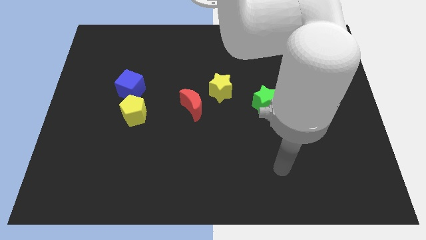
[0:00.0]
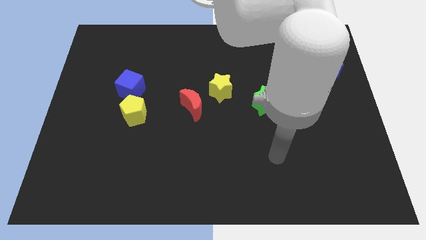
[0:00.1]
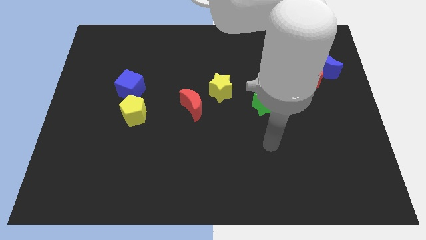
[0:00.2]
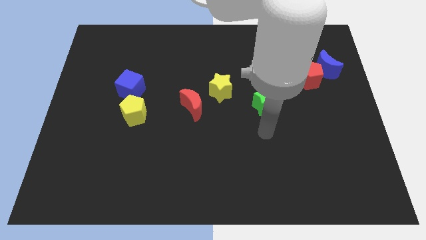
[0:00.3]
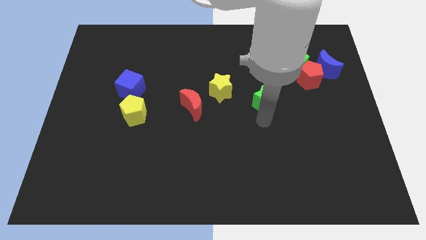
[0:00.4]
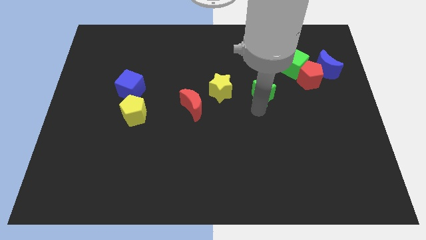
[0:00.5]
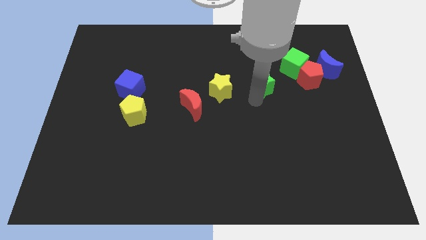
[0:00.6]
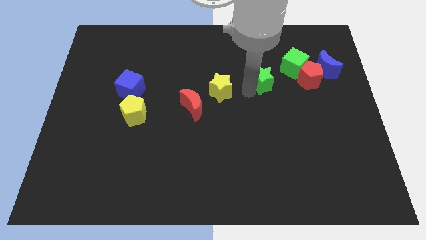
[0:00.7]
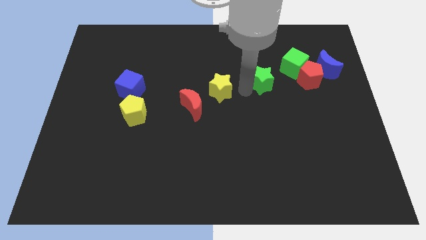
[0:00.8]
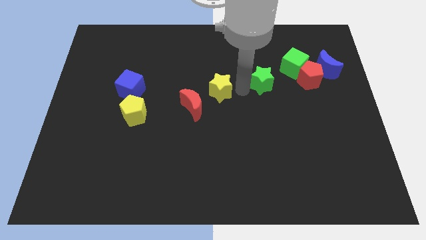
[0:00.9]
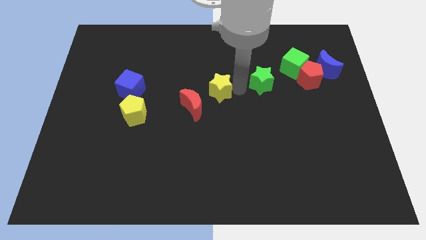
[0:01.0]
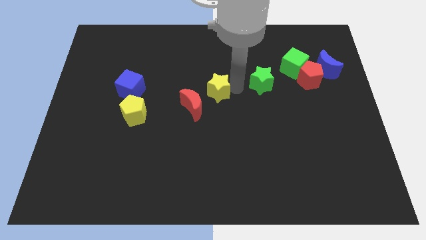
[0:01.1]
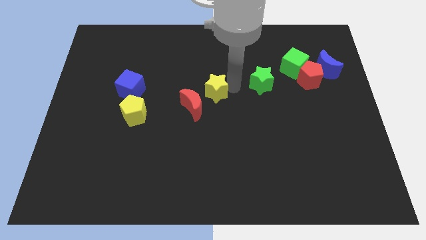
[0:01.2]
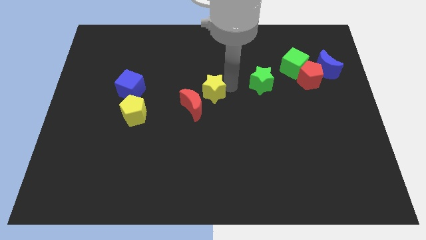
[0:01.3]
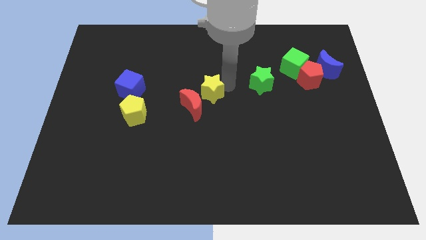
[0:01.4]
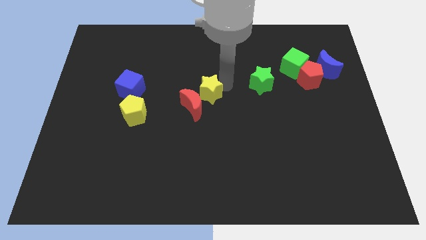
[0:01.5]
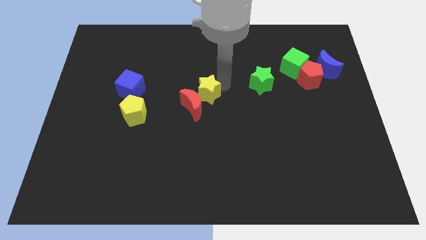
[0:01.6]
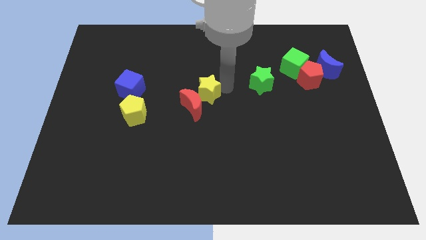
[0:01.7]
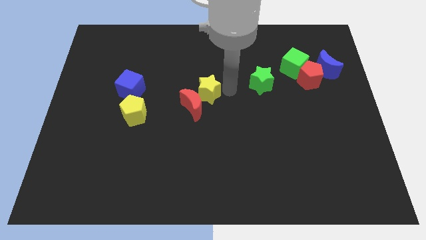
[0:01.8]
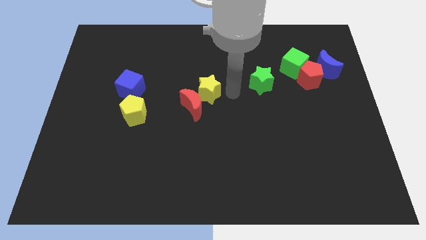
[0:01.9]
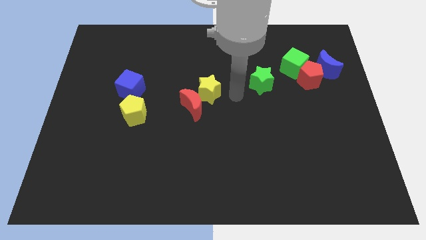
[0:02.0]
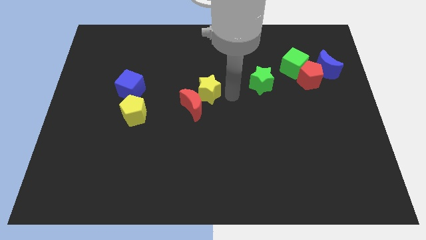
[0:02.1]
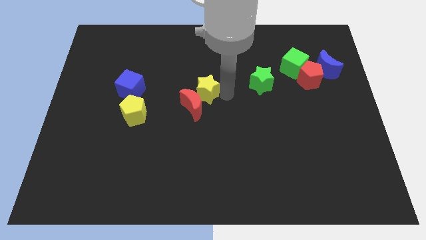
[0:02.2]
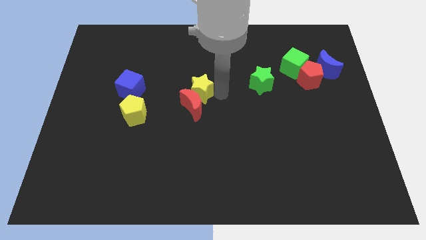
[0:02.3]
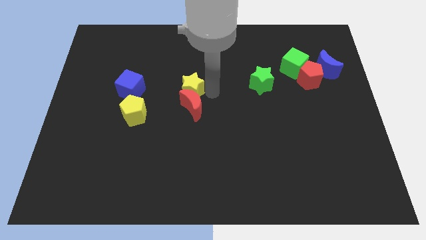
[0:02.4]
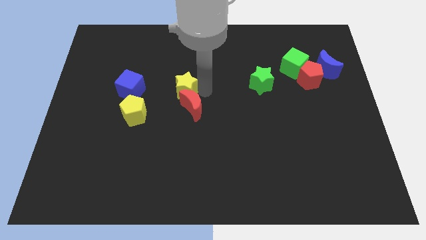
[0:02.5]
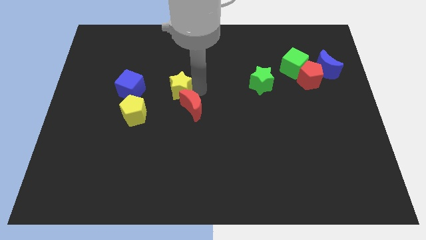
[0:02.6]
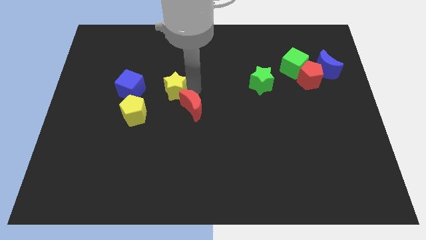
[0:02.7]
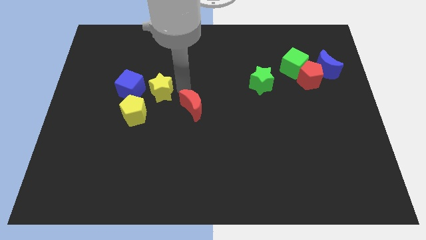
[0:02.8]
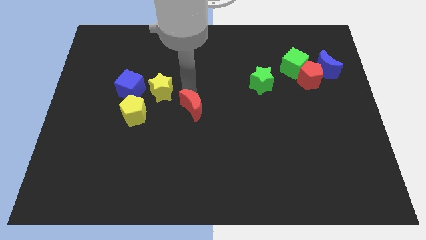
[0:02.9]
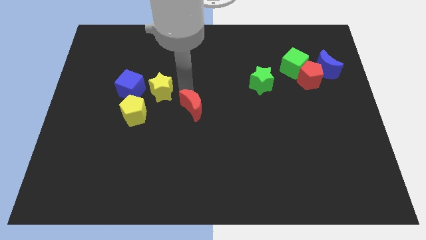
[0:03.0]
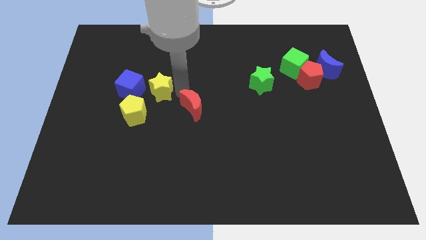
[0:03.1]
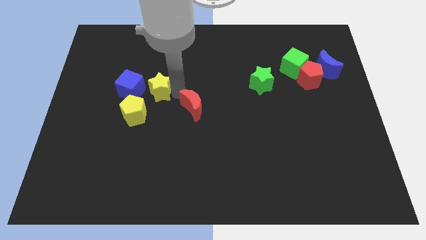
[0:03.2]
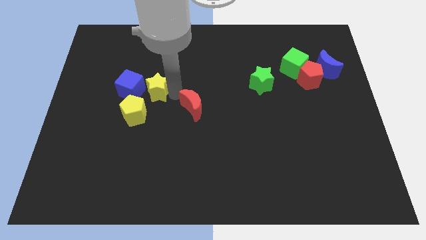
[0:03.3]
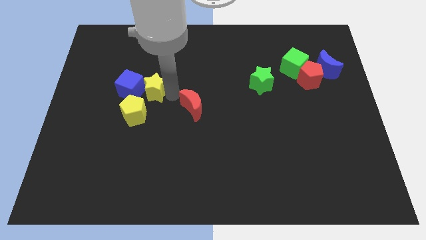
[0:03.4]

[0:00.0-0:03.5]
slide the yellow star close to the blue cube

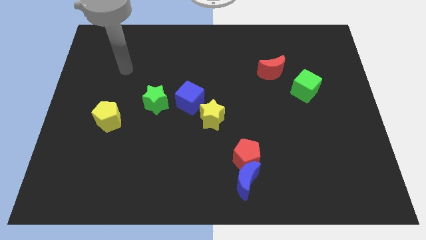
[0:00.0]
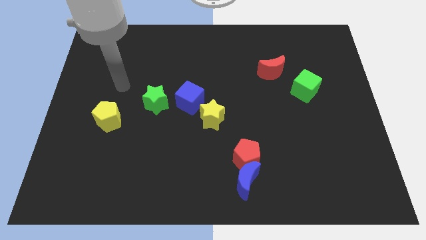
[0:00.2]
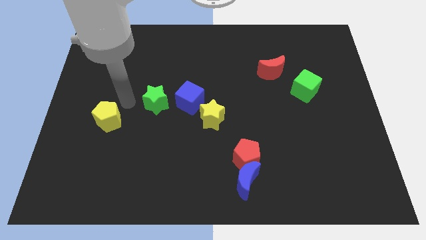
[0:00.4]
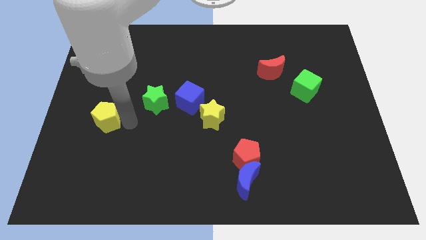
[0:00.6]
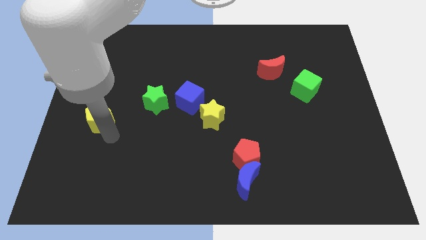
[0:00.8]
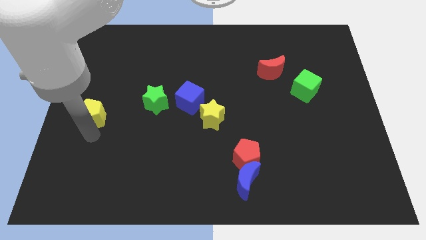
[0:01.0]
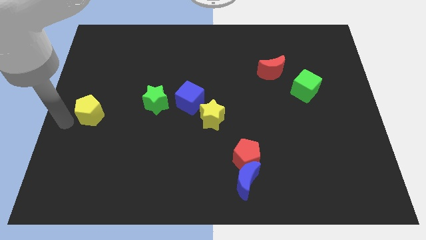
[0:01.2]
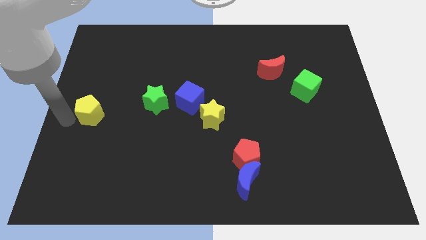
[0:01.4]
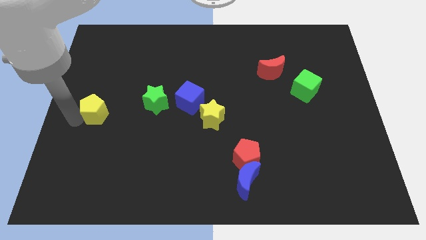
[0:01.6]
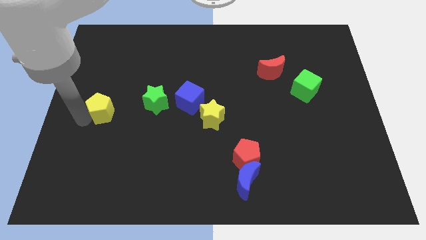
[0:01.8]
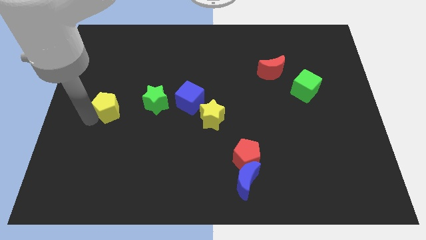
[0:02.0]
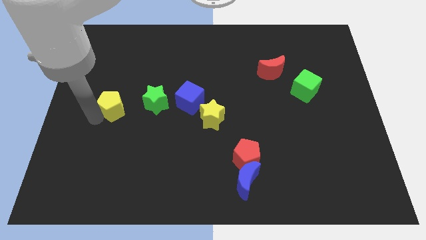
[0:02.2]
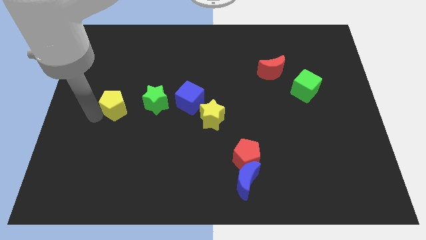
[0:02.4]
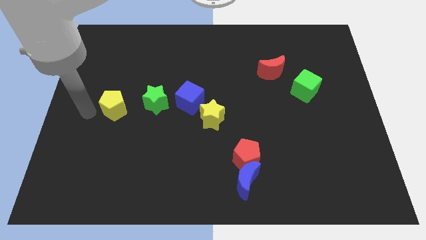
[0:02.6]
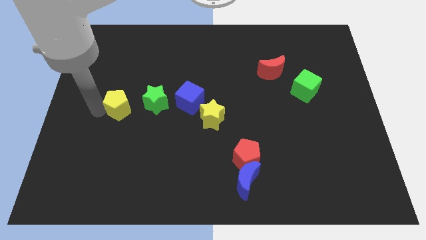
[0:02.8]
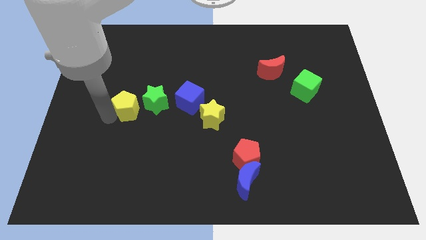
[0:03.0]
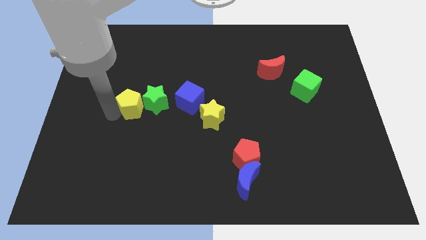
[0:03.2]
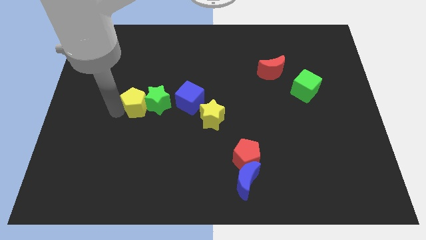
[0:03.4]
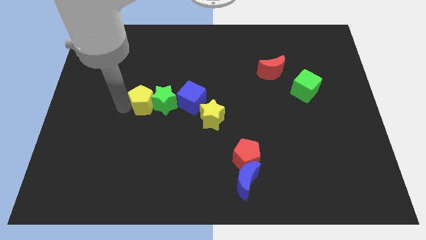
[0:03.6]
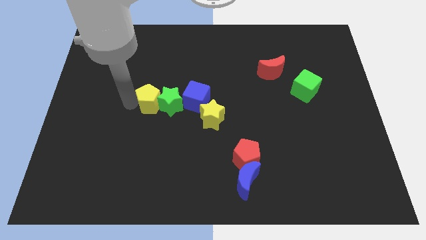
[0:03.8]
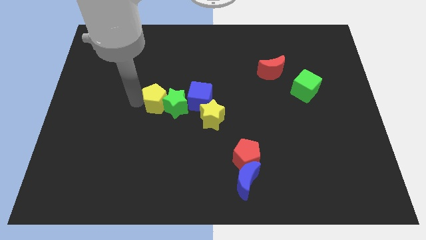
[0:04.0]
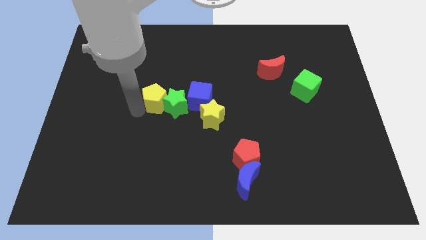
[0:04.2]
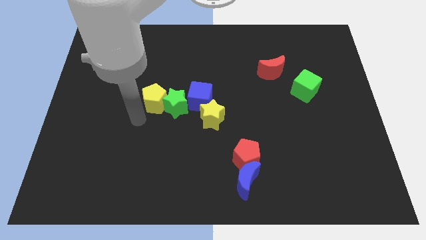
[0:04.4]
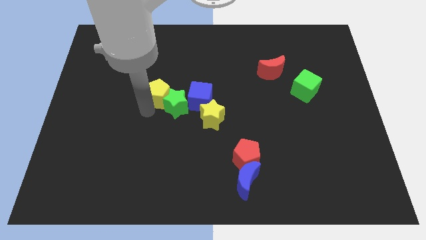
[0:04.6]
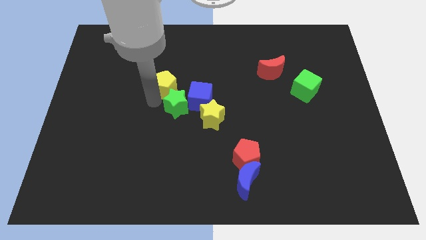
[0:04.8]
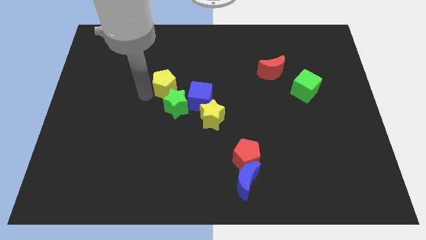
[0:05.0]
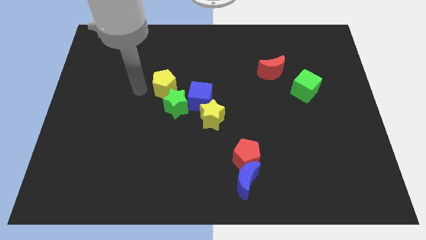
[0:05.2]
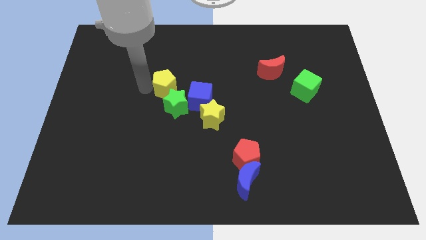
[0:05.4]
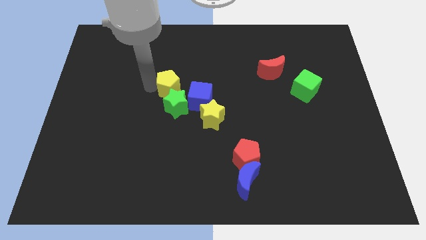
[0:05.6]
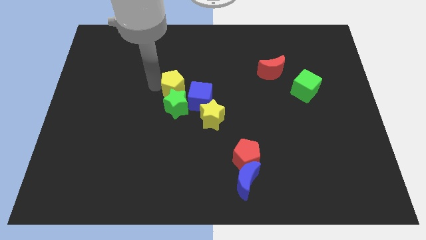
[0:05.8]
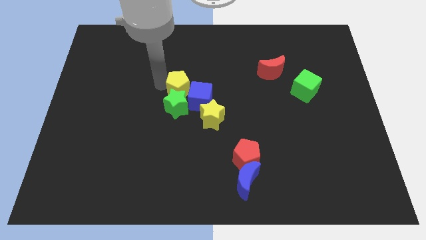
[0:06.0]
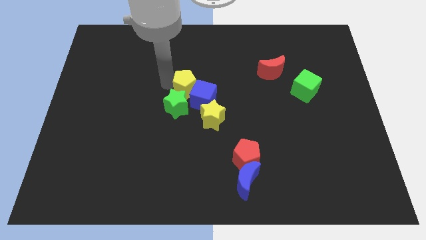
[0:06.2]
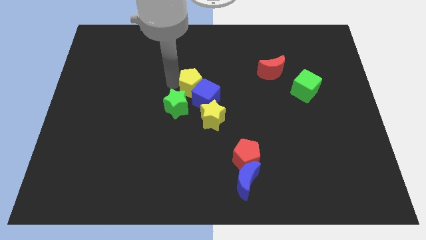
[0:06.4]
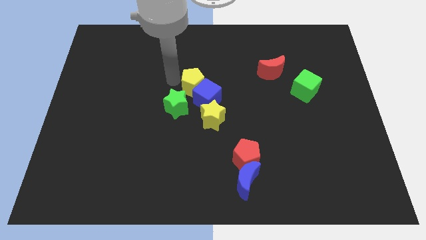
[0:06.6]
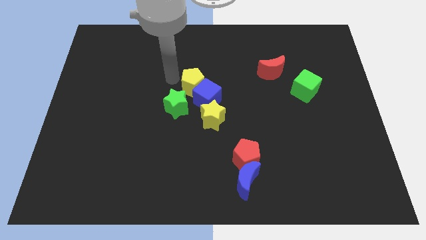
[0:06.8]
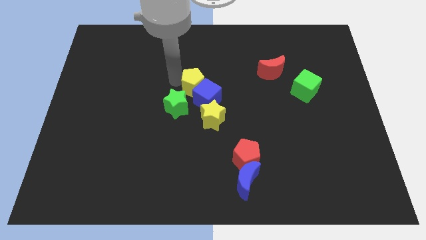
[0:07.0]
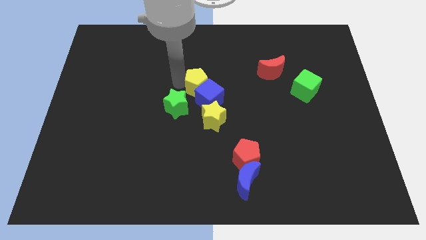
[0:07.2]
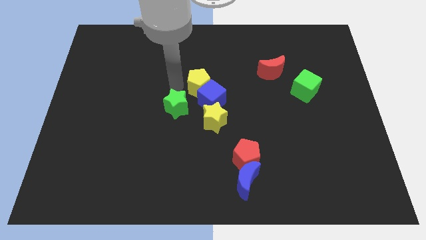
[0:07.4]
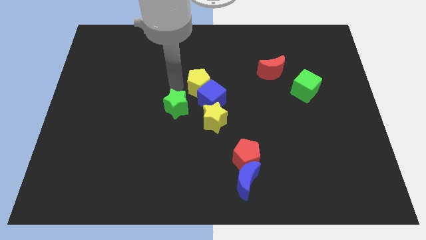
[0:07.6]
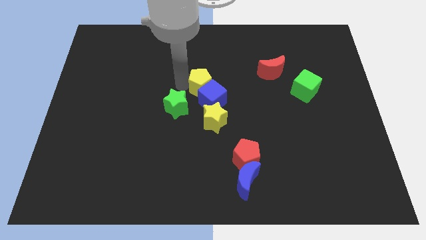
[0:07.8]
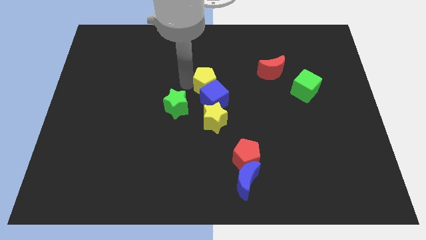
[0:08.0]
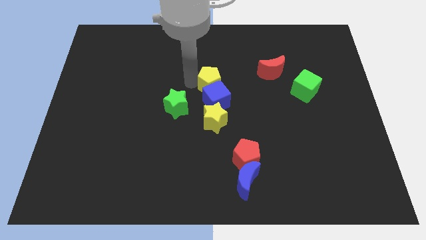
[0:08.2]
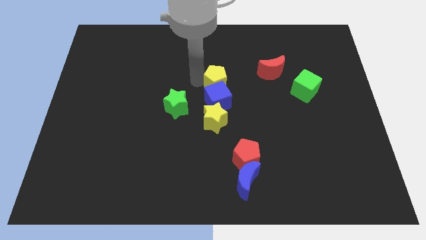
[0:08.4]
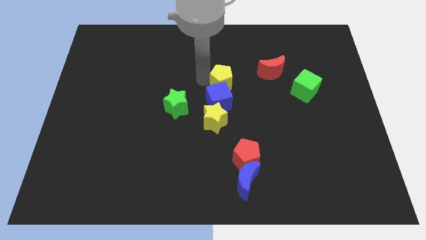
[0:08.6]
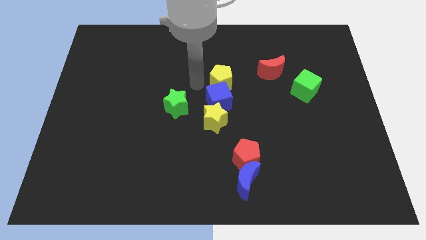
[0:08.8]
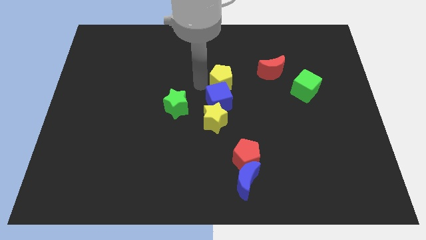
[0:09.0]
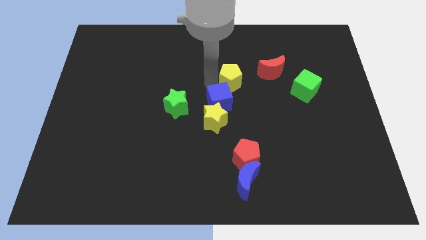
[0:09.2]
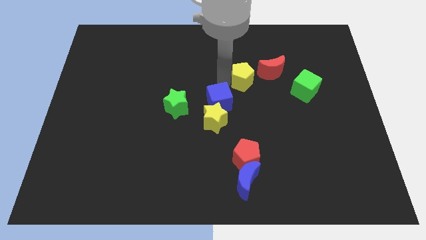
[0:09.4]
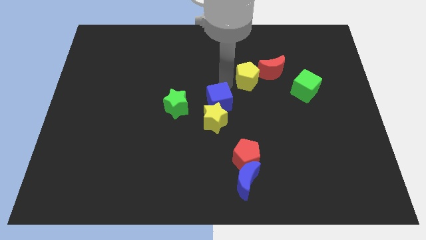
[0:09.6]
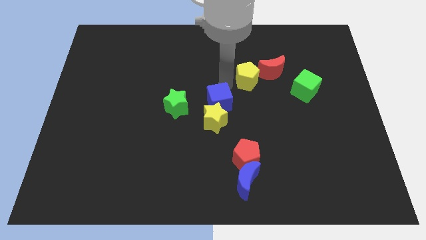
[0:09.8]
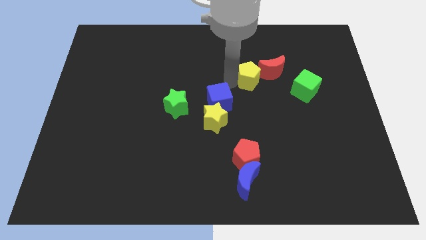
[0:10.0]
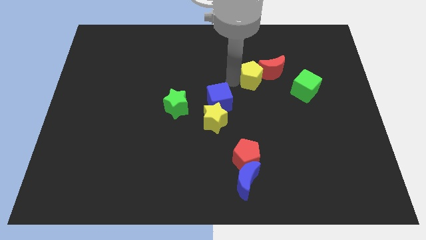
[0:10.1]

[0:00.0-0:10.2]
push the yellow pentagon to the red moon
